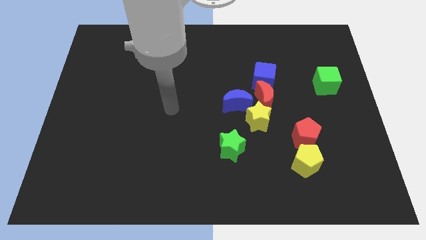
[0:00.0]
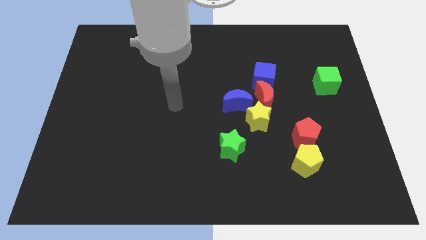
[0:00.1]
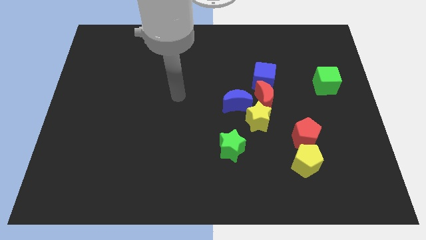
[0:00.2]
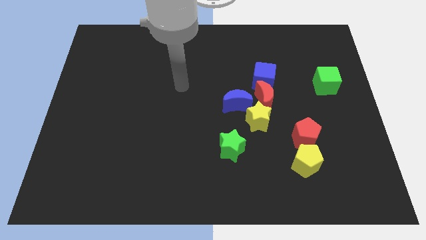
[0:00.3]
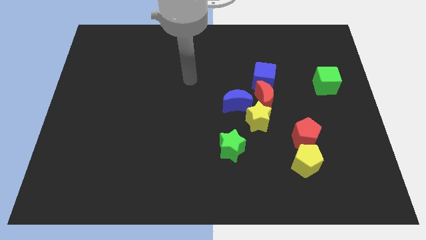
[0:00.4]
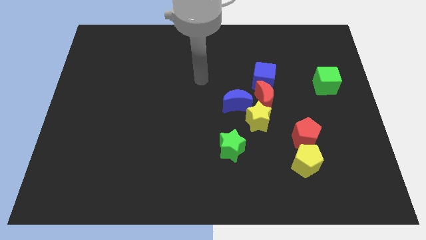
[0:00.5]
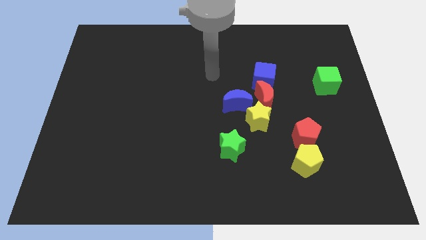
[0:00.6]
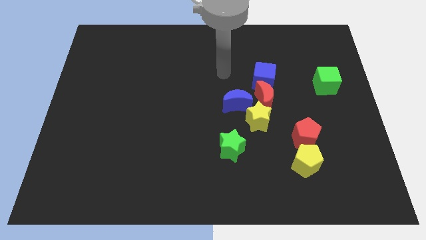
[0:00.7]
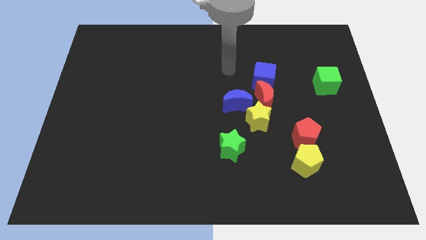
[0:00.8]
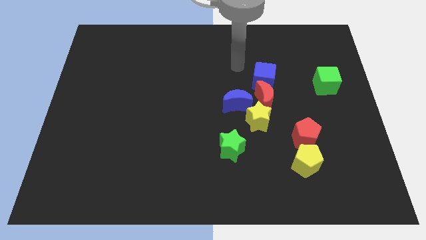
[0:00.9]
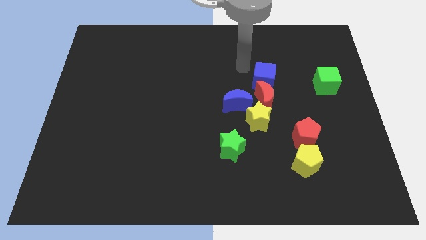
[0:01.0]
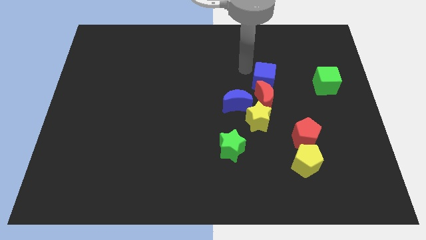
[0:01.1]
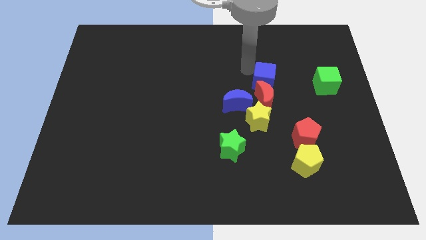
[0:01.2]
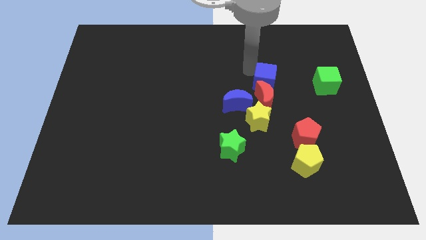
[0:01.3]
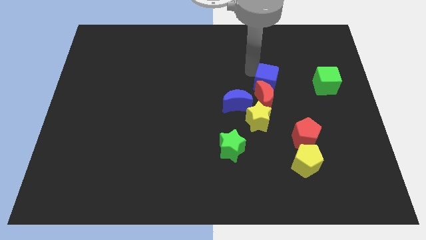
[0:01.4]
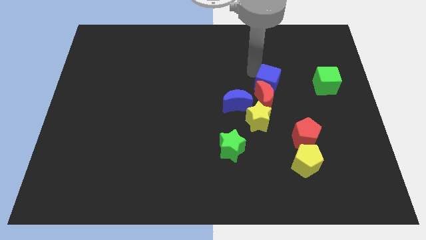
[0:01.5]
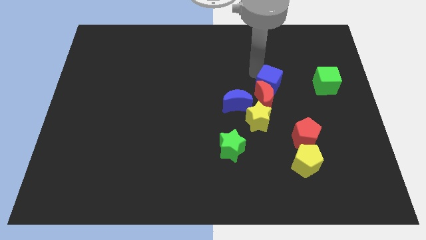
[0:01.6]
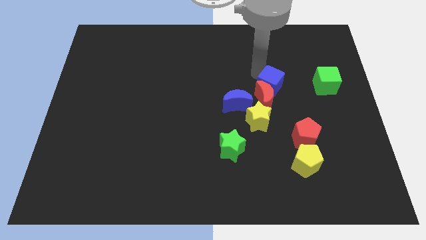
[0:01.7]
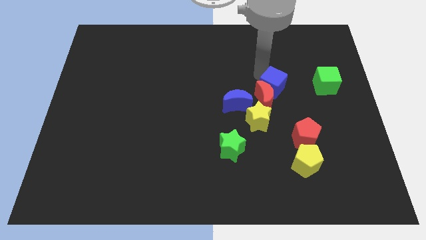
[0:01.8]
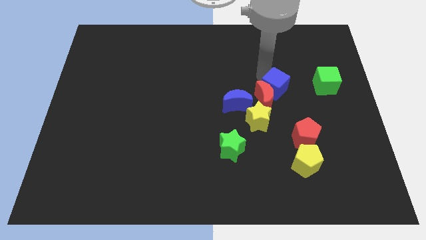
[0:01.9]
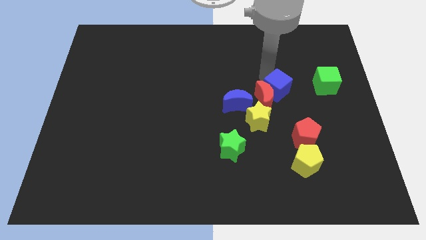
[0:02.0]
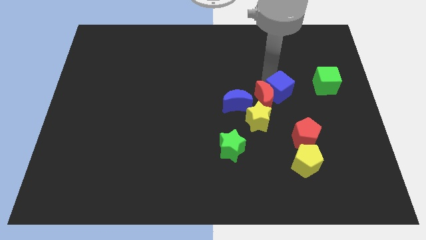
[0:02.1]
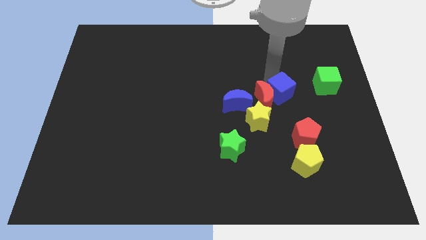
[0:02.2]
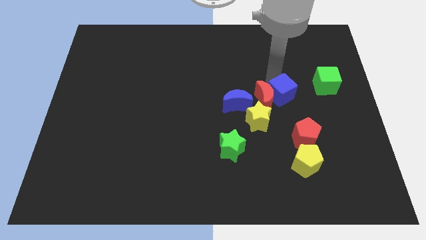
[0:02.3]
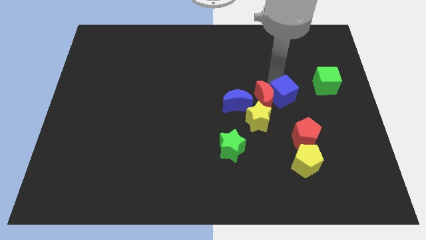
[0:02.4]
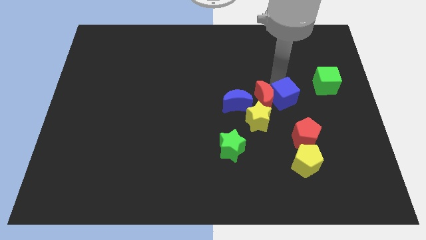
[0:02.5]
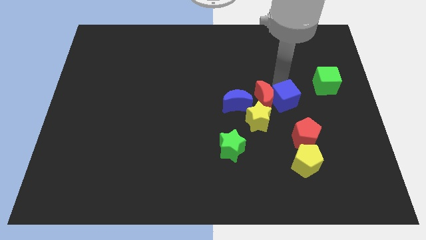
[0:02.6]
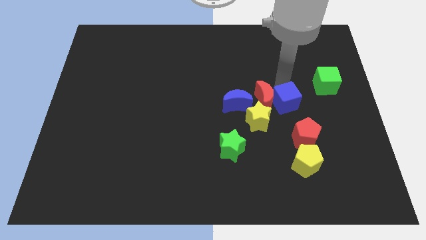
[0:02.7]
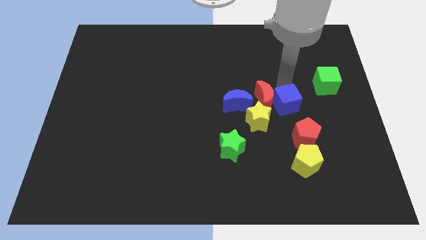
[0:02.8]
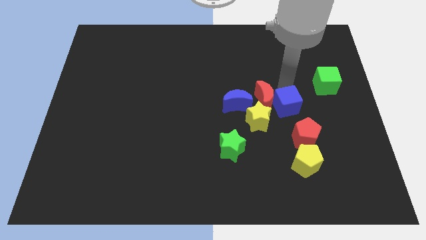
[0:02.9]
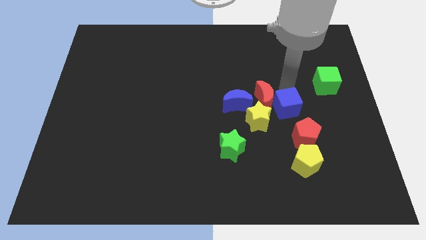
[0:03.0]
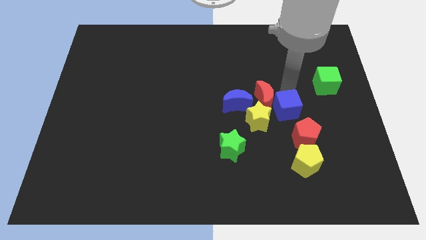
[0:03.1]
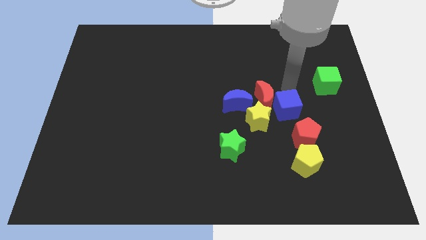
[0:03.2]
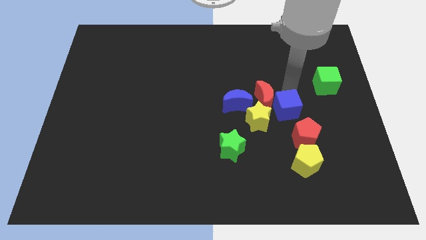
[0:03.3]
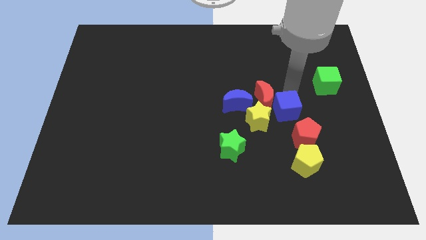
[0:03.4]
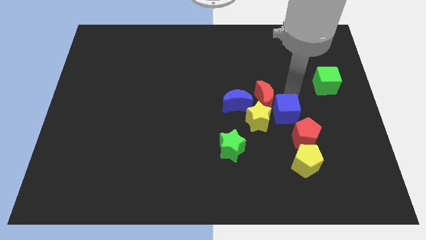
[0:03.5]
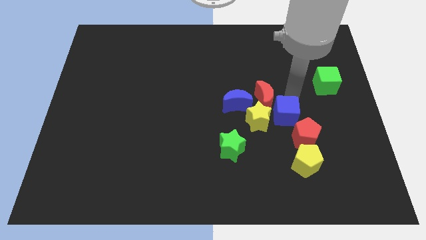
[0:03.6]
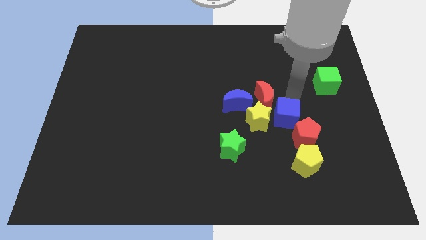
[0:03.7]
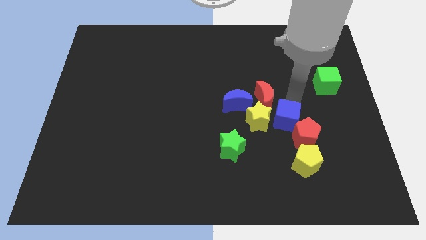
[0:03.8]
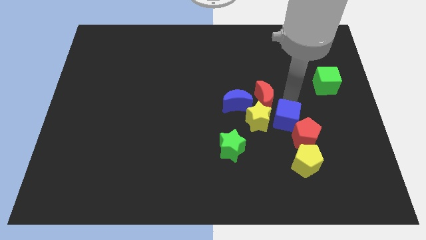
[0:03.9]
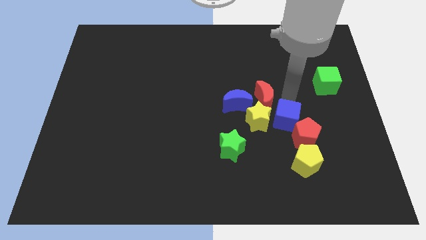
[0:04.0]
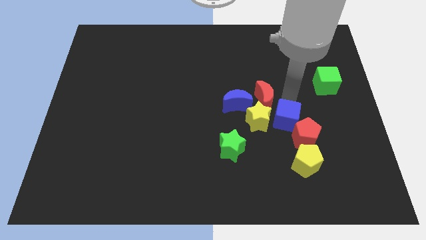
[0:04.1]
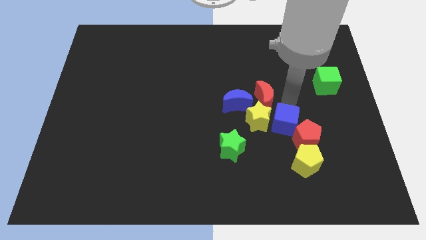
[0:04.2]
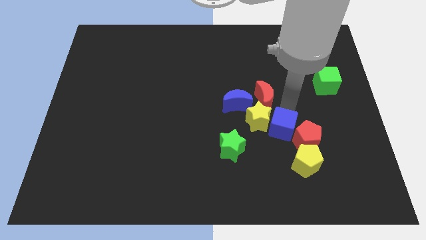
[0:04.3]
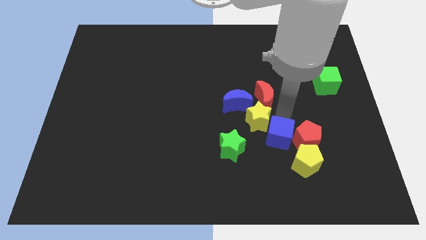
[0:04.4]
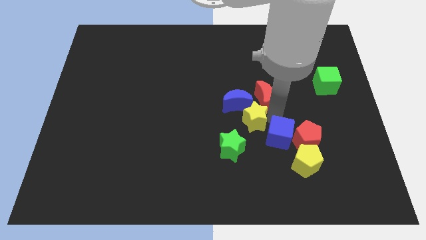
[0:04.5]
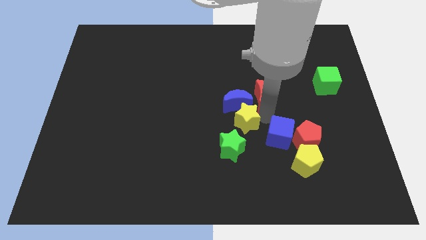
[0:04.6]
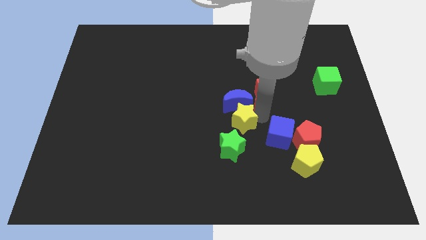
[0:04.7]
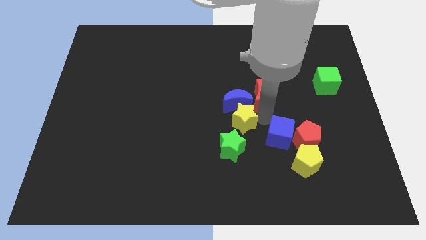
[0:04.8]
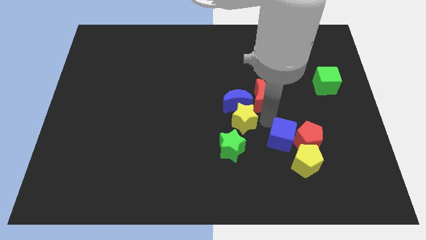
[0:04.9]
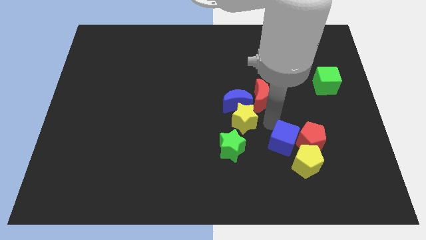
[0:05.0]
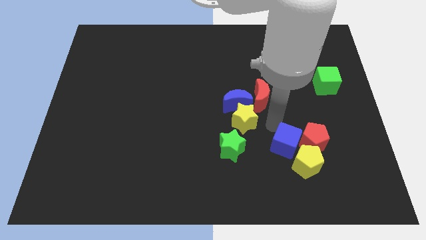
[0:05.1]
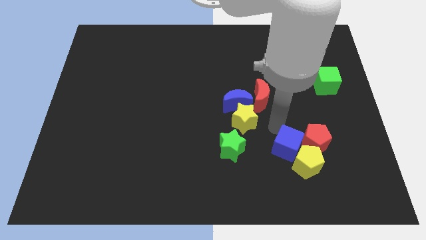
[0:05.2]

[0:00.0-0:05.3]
slide the blue cube towards the yellow pentagon

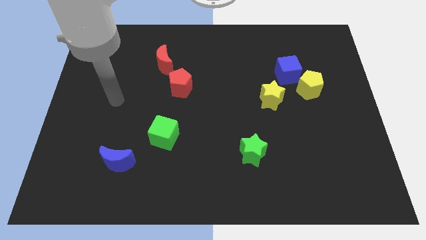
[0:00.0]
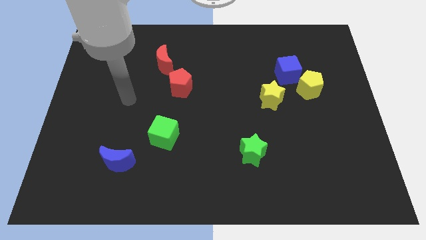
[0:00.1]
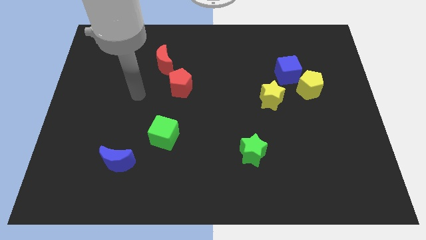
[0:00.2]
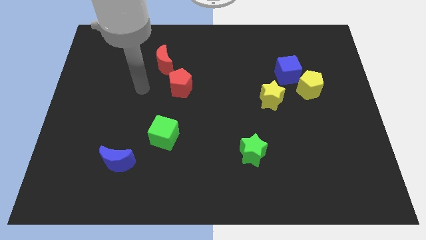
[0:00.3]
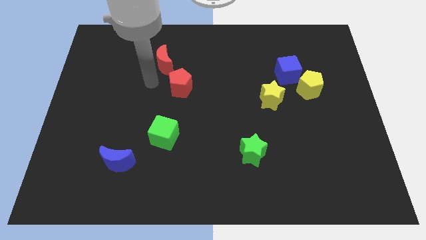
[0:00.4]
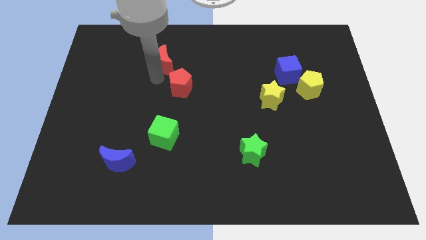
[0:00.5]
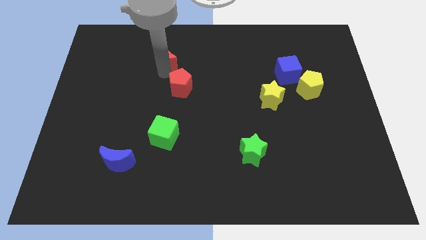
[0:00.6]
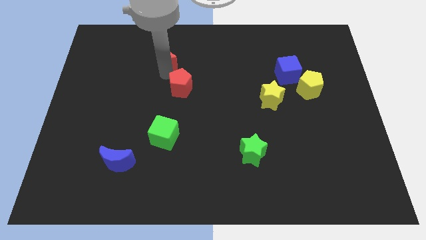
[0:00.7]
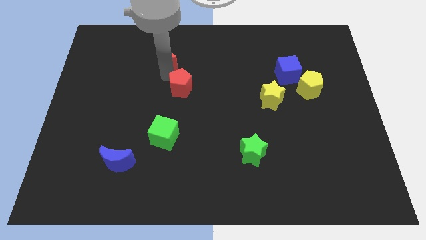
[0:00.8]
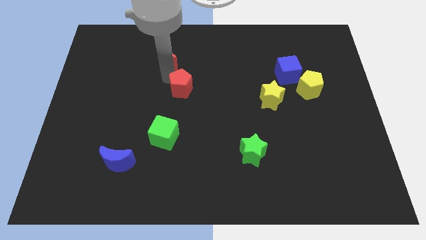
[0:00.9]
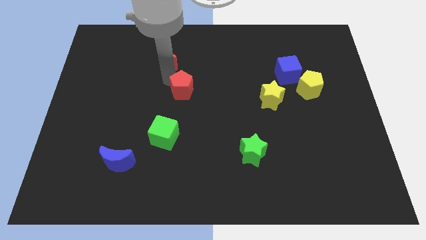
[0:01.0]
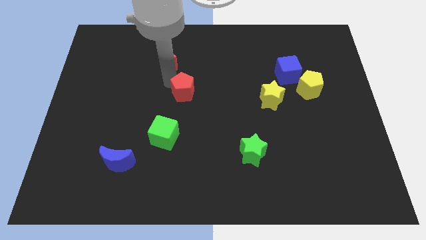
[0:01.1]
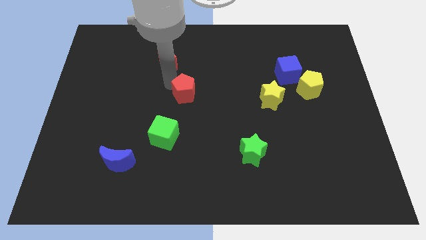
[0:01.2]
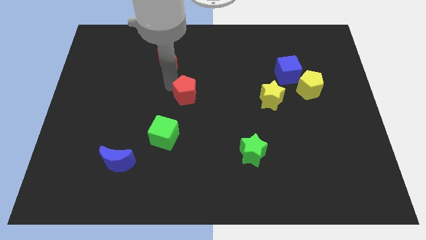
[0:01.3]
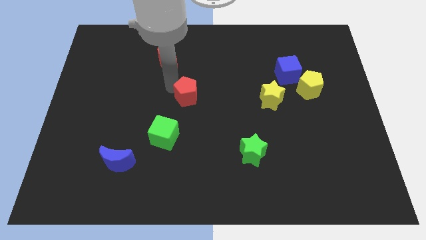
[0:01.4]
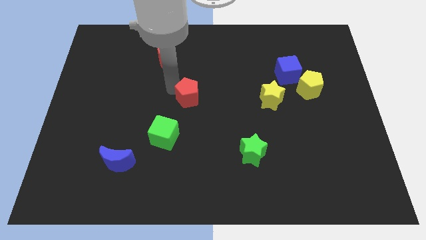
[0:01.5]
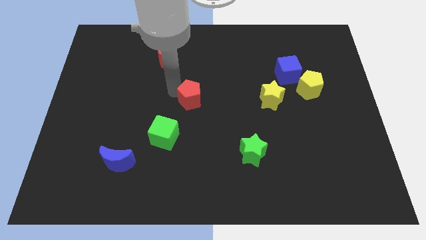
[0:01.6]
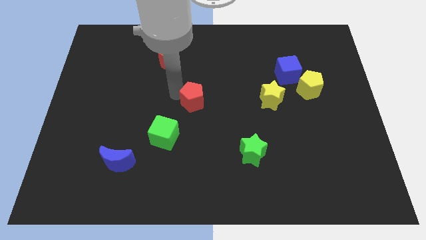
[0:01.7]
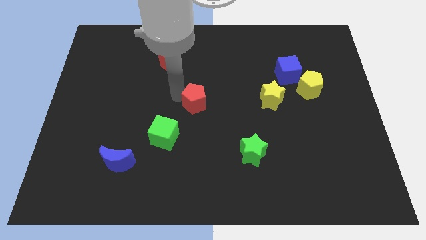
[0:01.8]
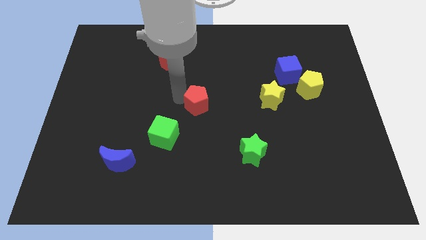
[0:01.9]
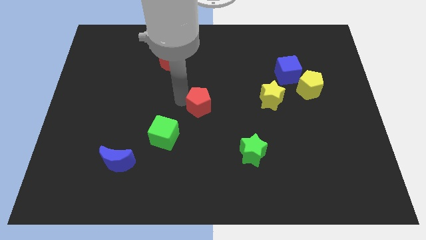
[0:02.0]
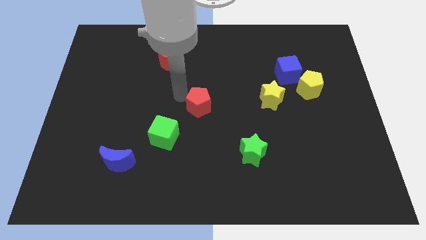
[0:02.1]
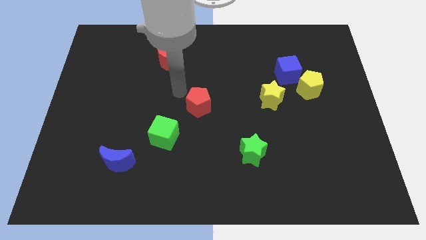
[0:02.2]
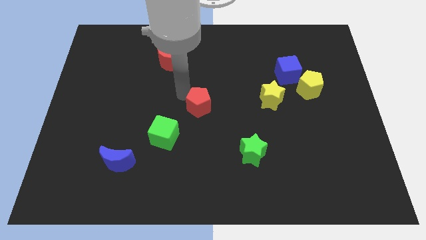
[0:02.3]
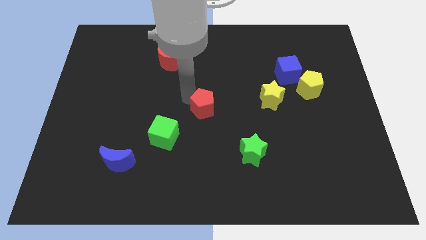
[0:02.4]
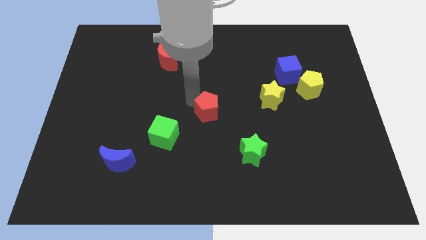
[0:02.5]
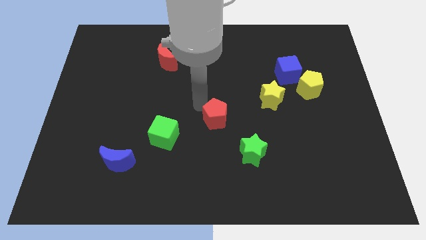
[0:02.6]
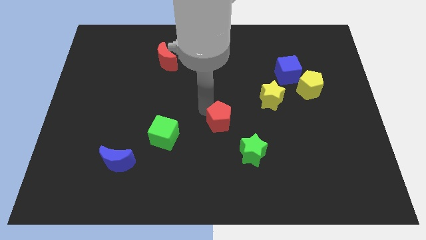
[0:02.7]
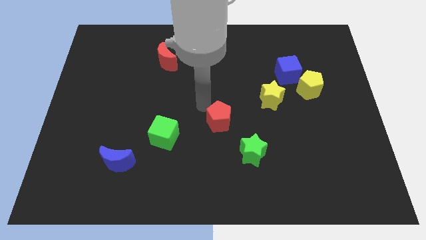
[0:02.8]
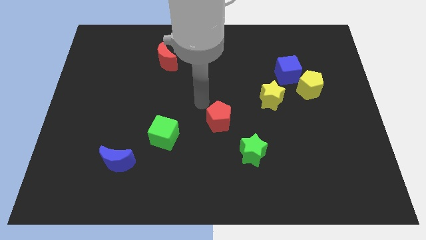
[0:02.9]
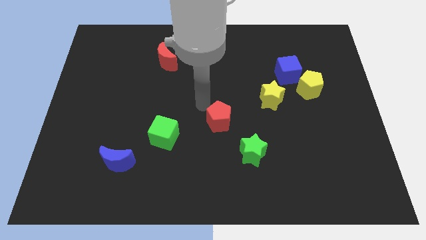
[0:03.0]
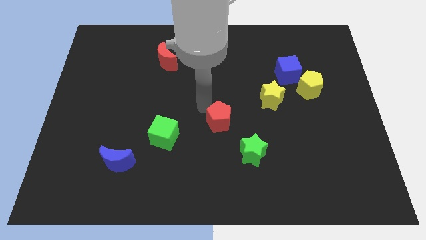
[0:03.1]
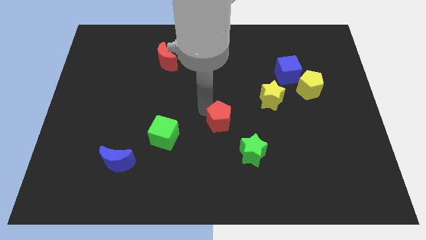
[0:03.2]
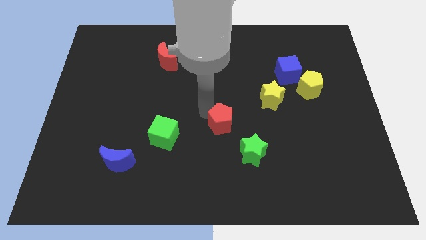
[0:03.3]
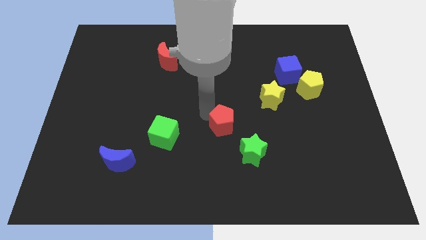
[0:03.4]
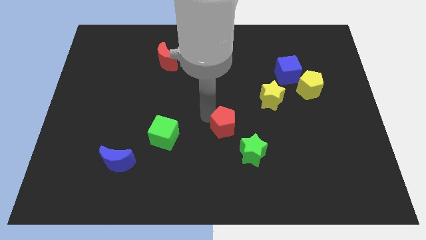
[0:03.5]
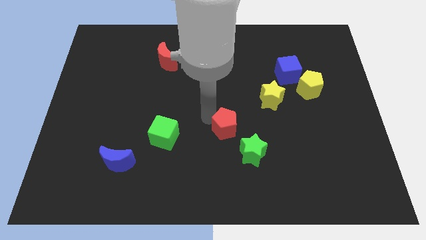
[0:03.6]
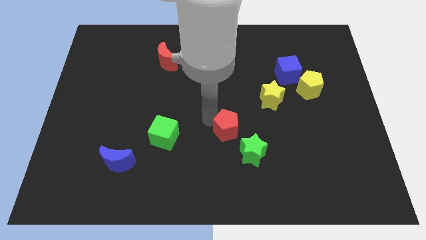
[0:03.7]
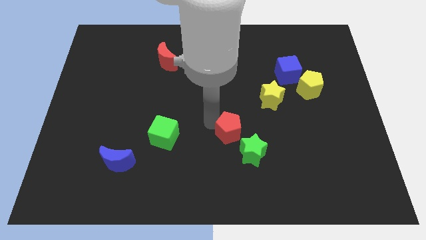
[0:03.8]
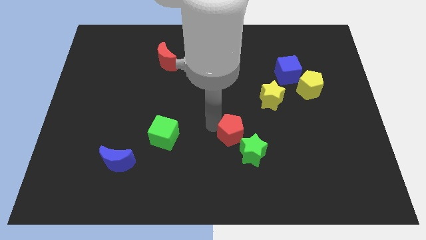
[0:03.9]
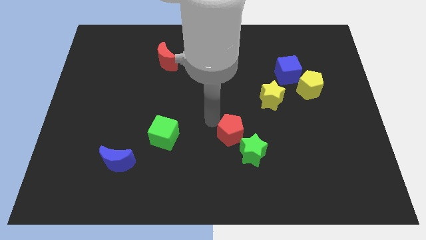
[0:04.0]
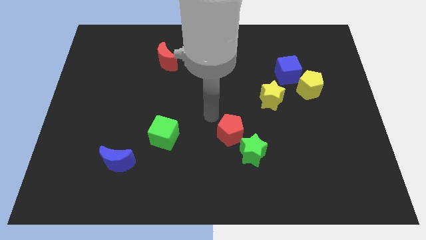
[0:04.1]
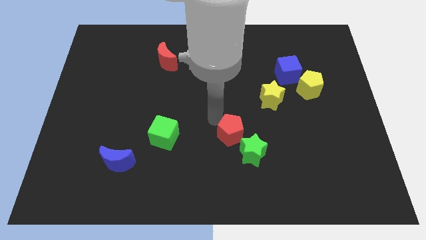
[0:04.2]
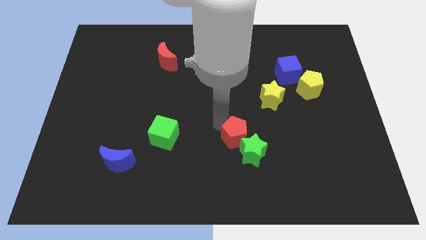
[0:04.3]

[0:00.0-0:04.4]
push the red pentagon to the green star
